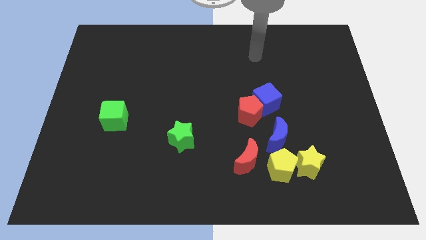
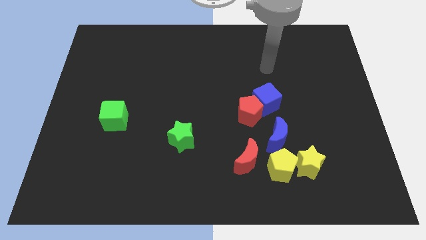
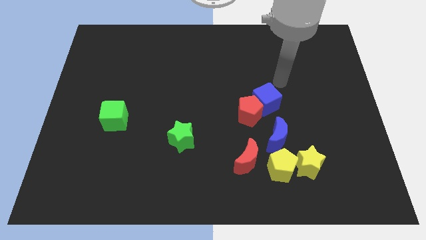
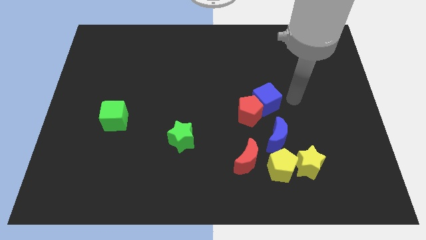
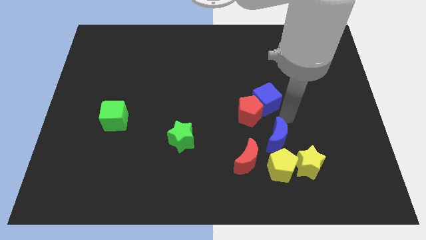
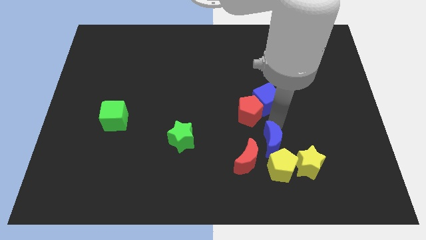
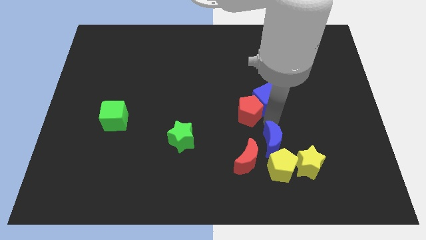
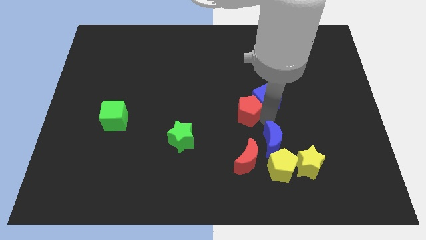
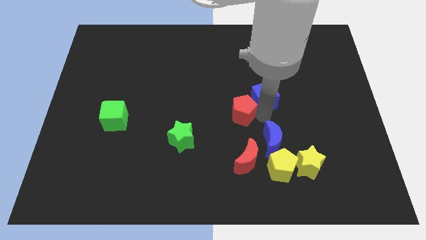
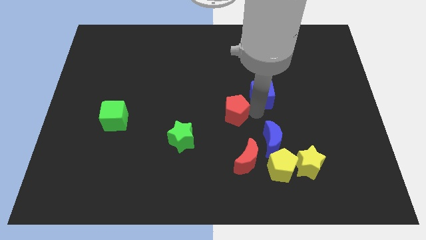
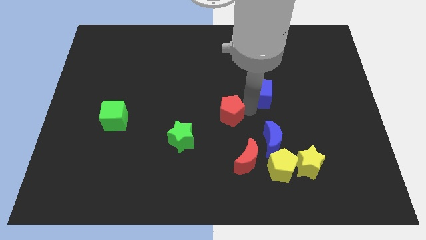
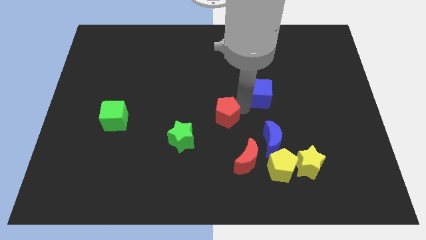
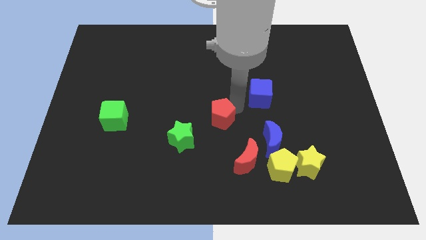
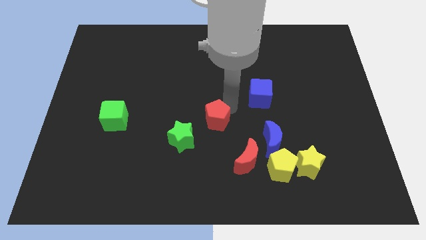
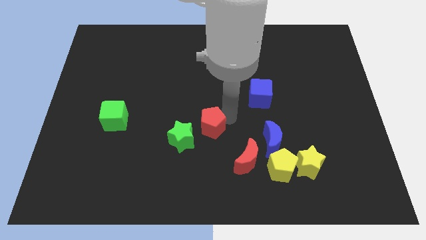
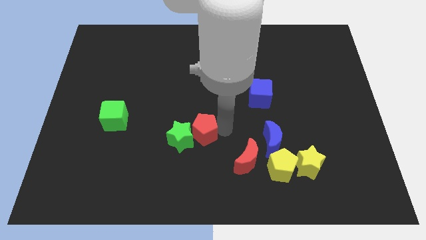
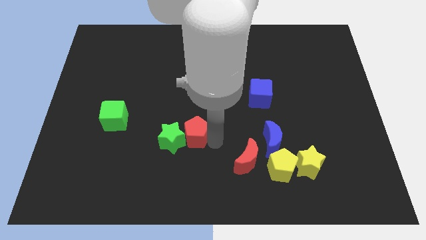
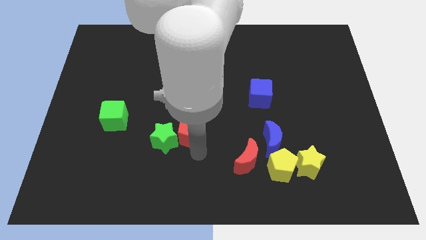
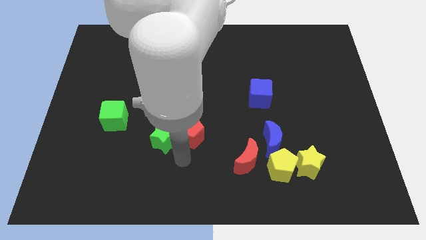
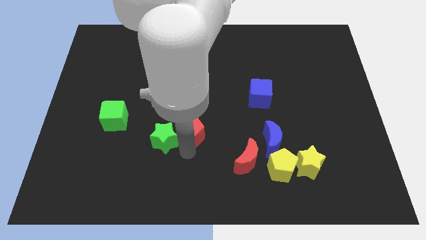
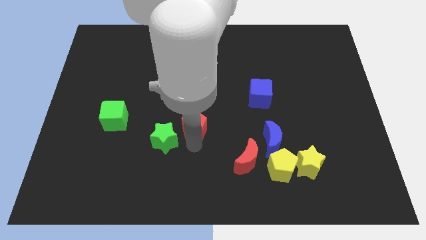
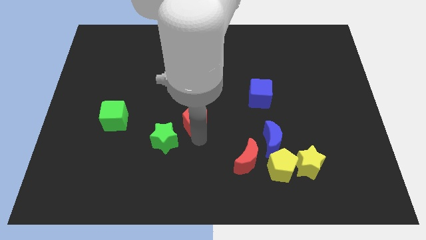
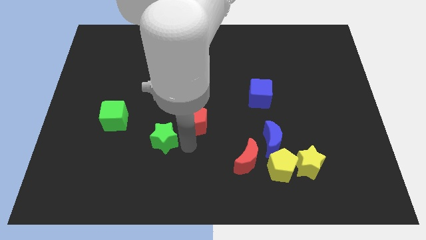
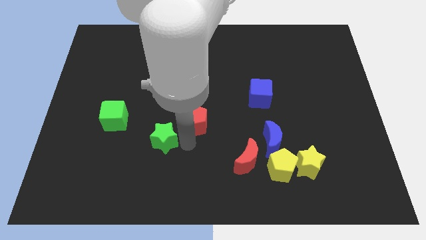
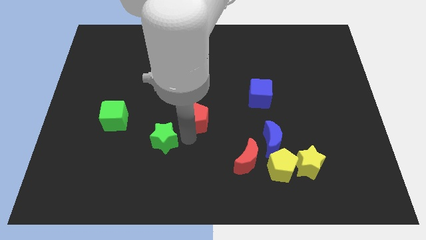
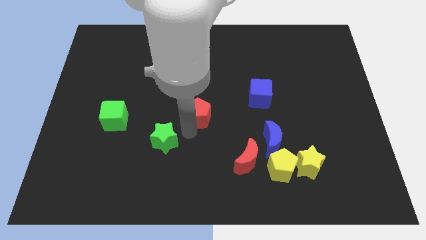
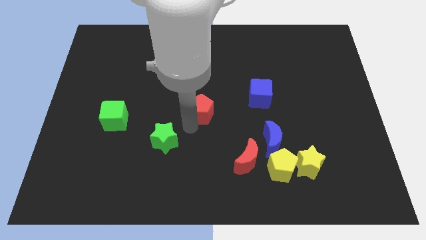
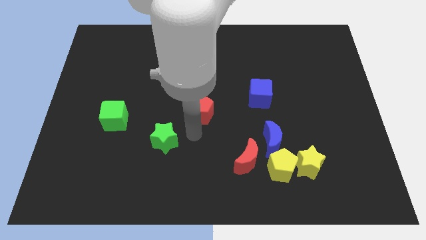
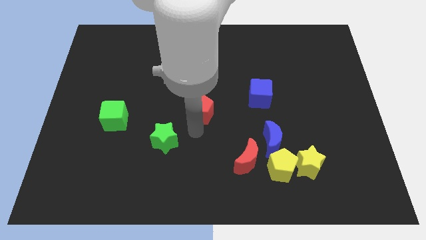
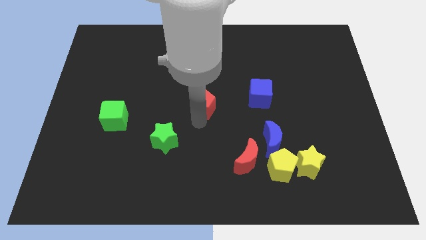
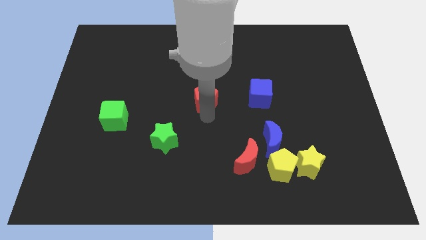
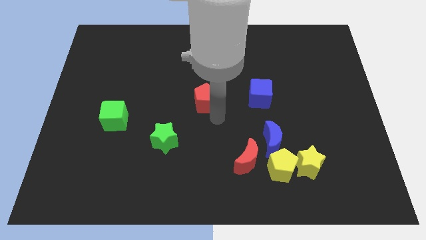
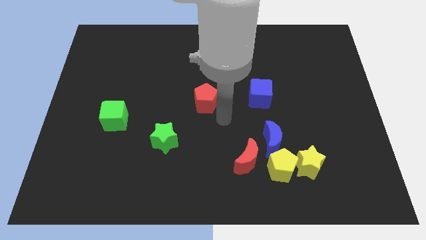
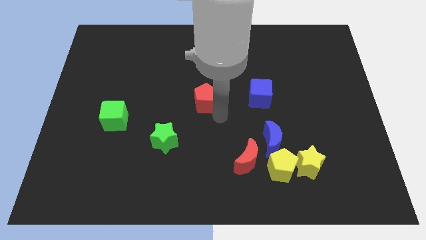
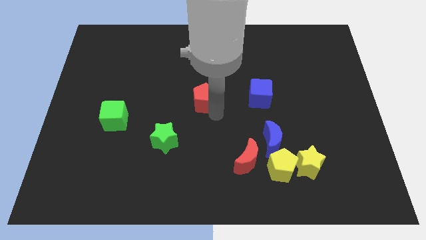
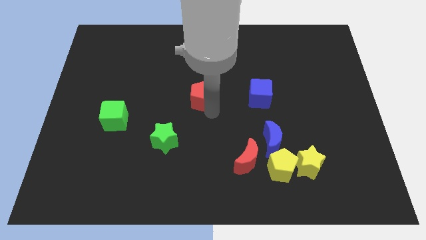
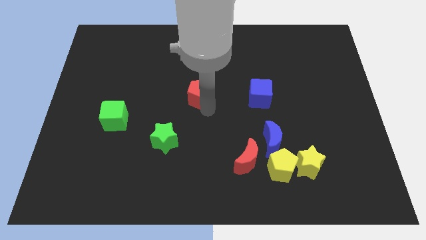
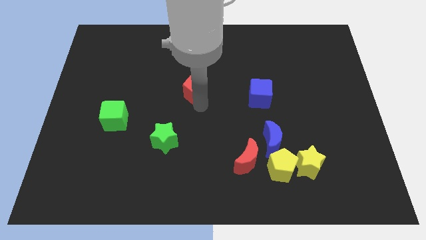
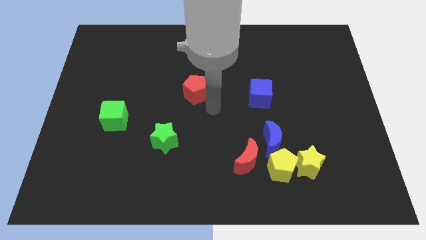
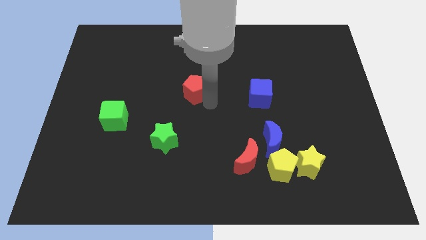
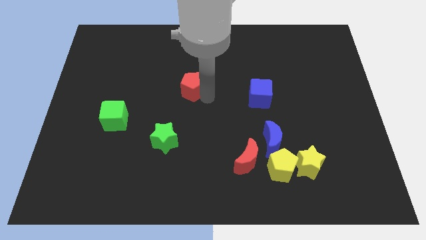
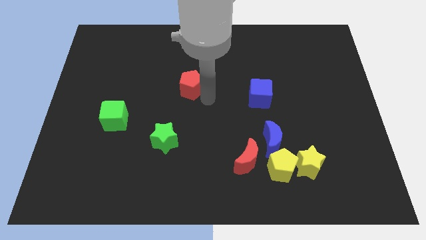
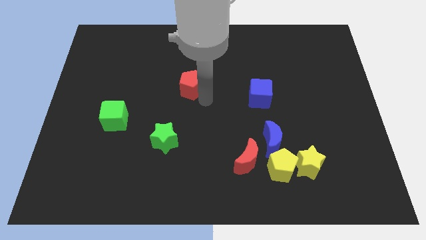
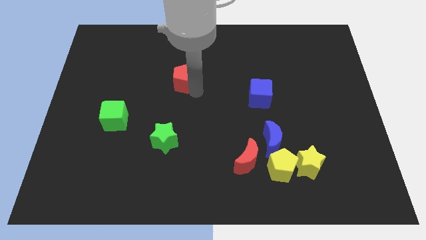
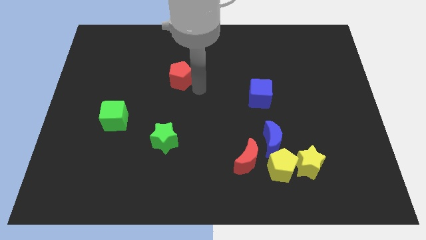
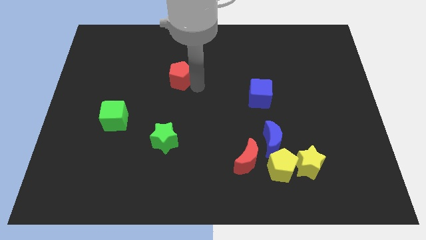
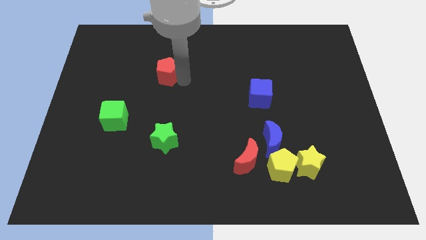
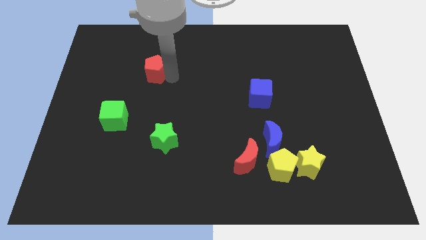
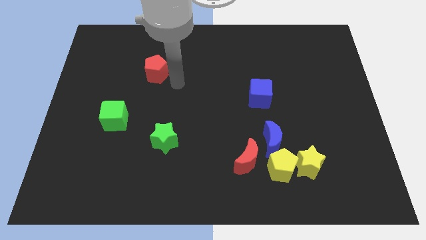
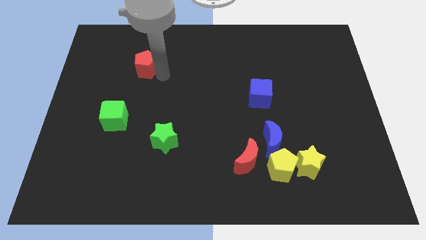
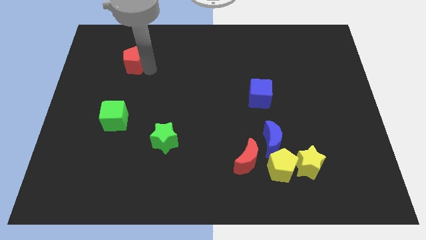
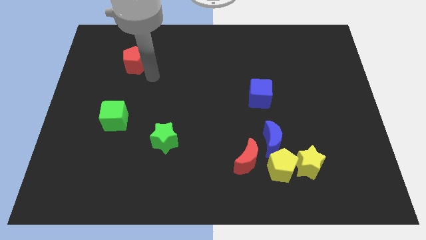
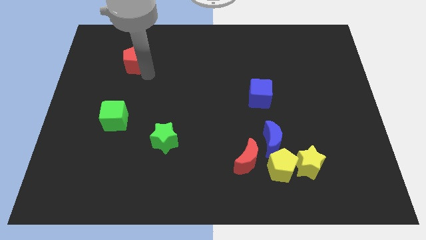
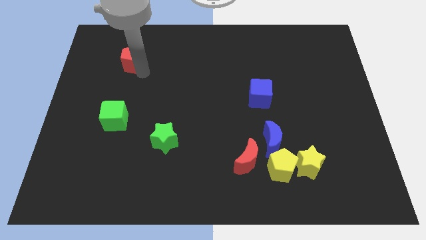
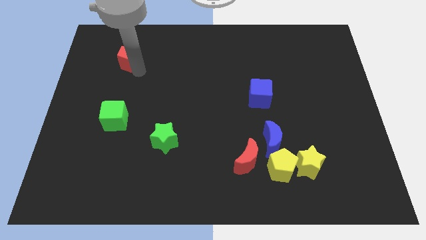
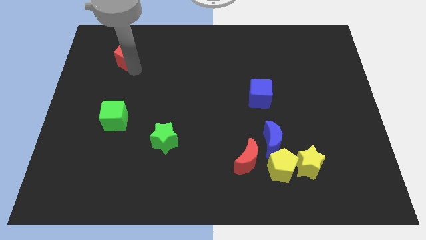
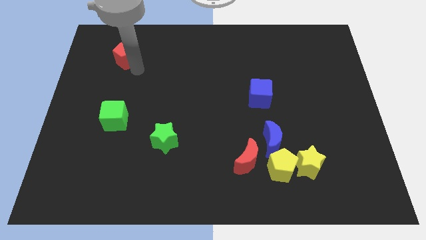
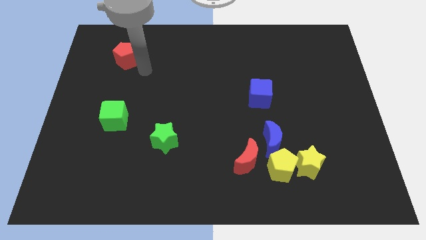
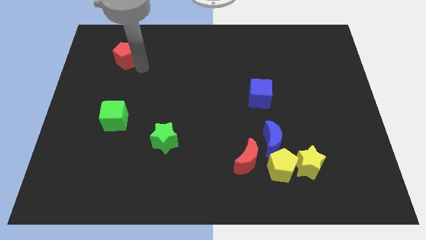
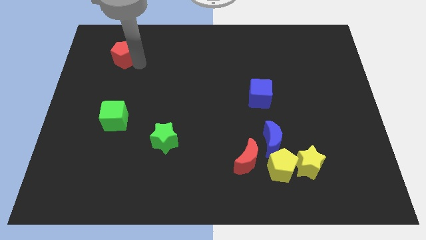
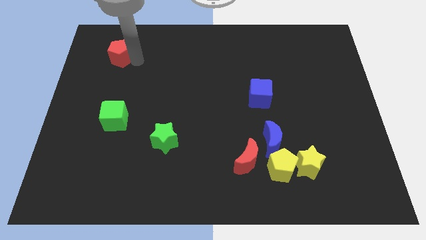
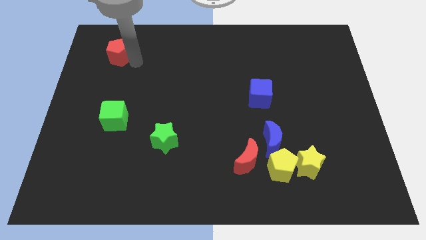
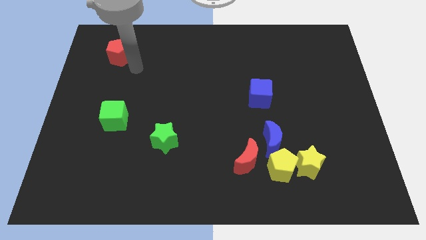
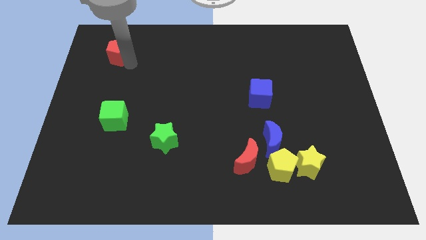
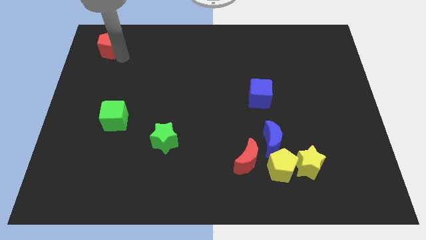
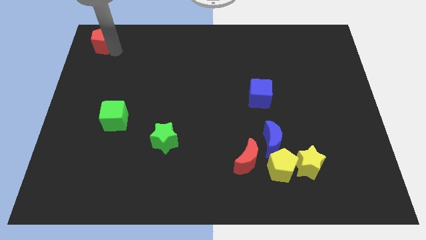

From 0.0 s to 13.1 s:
put the red pentagon to the top left corner
